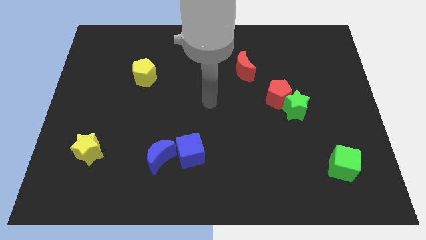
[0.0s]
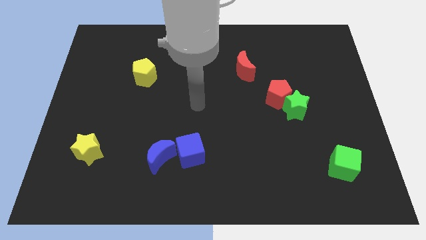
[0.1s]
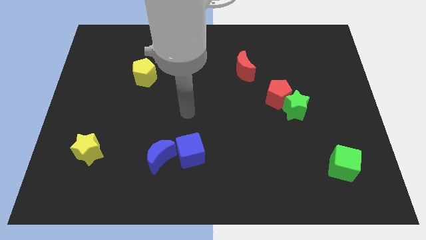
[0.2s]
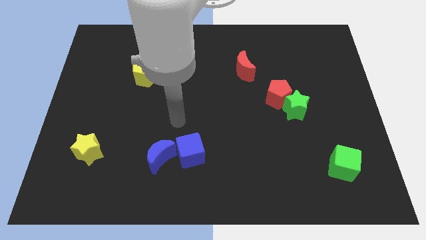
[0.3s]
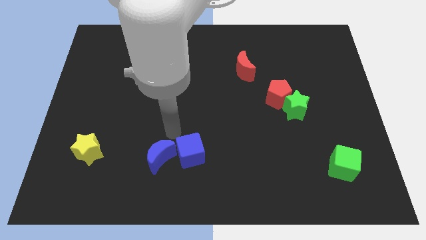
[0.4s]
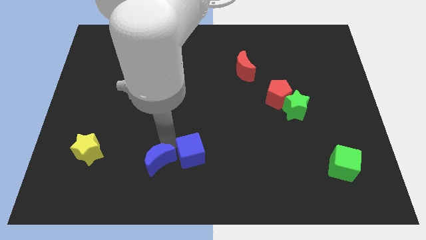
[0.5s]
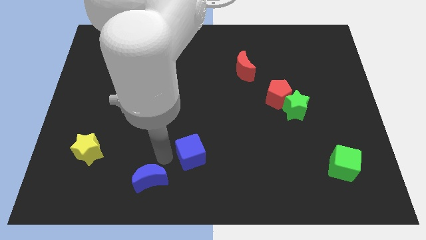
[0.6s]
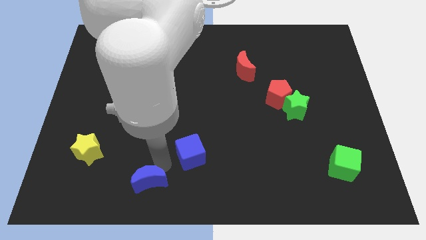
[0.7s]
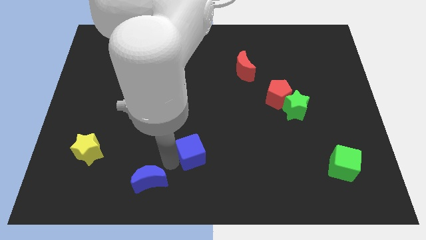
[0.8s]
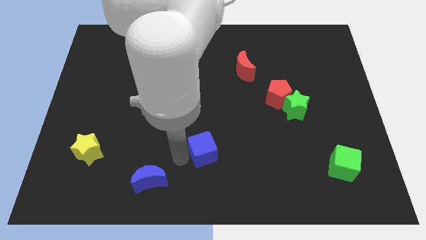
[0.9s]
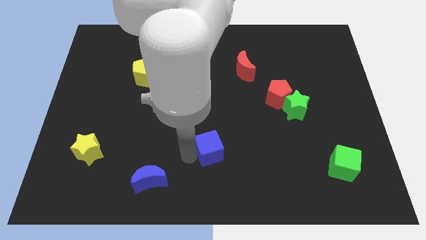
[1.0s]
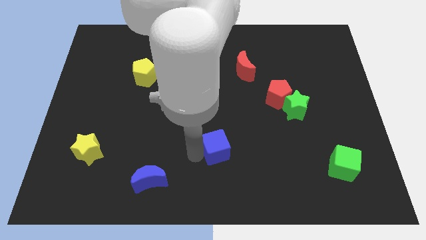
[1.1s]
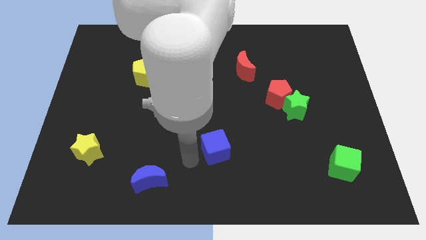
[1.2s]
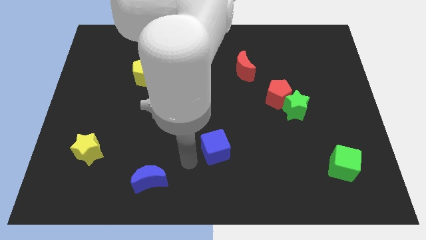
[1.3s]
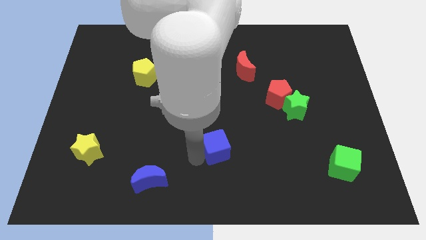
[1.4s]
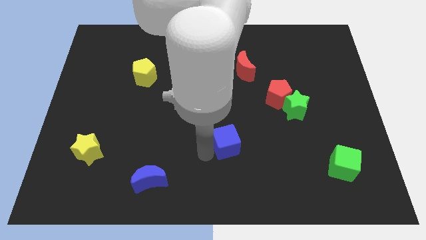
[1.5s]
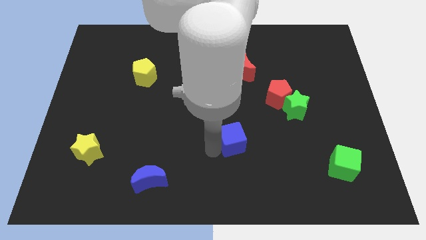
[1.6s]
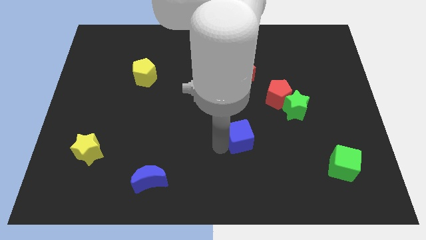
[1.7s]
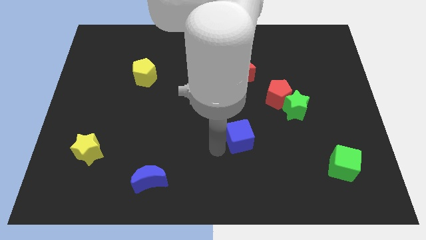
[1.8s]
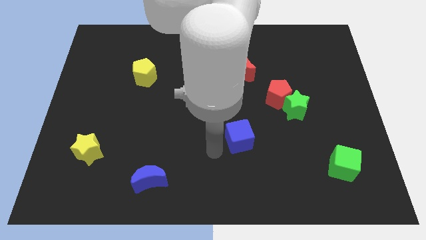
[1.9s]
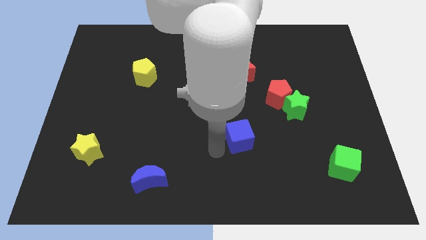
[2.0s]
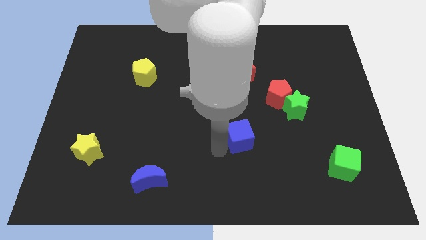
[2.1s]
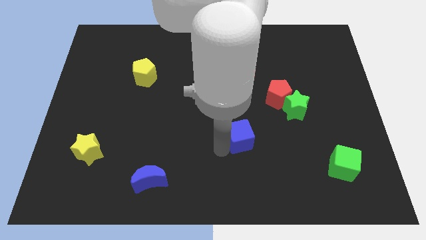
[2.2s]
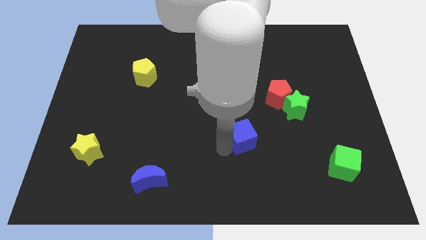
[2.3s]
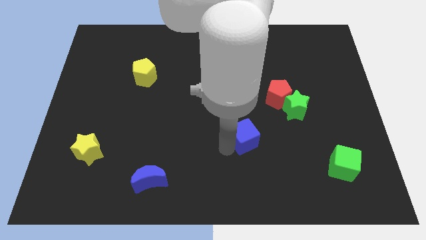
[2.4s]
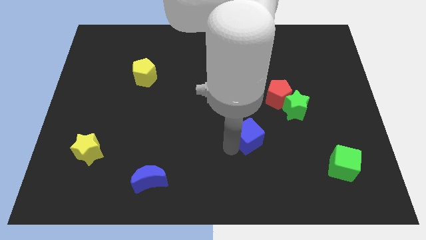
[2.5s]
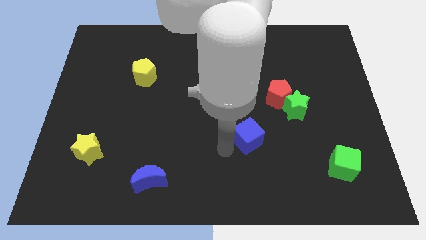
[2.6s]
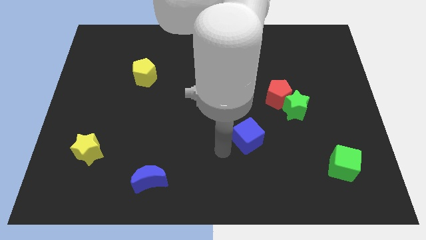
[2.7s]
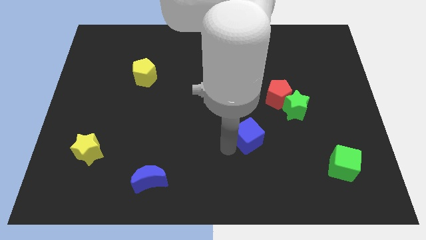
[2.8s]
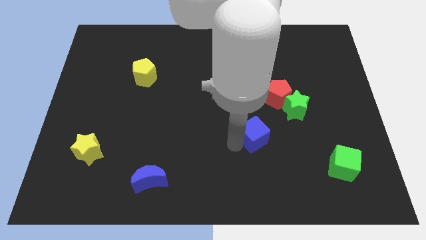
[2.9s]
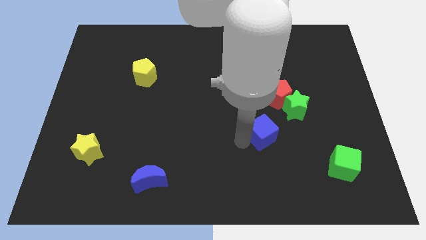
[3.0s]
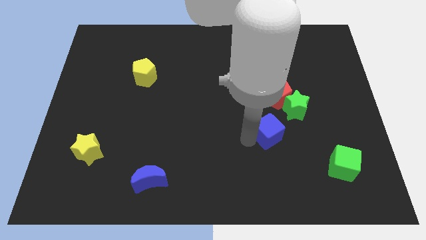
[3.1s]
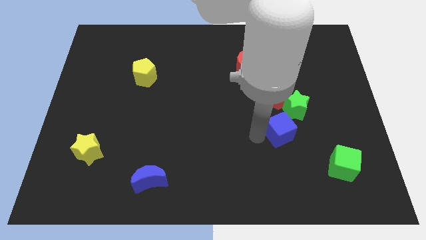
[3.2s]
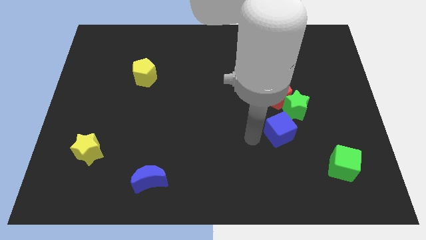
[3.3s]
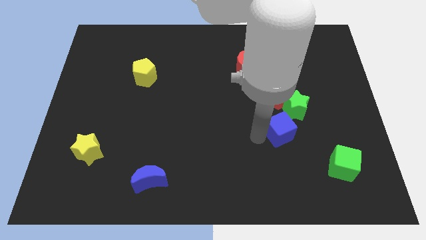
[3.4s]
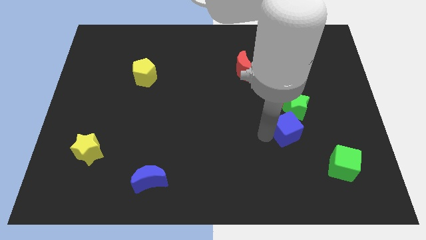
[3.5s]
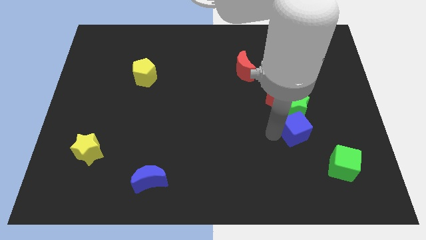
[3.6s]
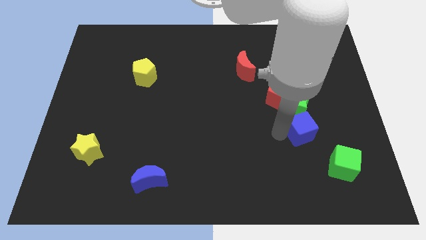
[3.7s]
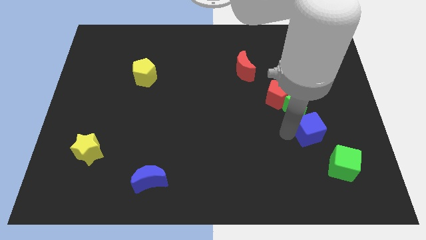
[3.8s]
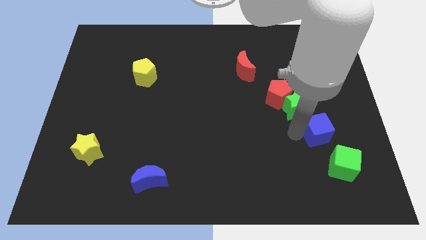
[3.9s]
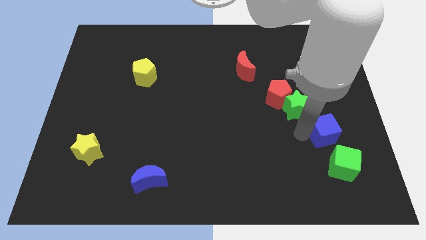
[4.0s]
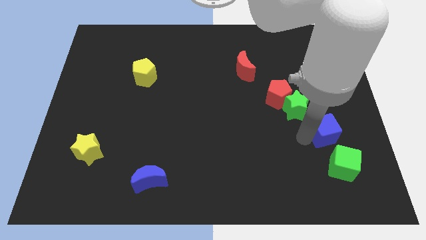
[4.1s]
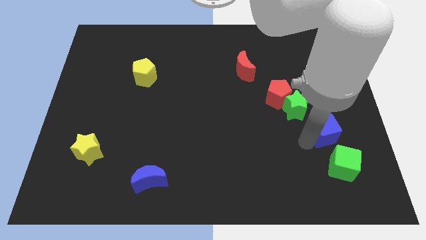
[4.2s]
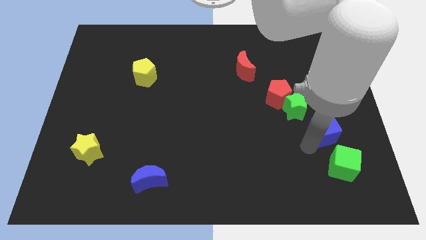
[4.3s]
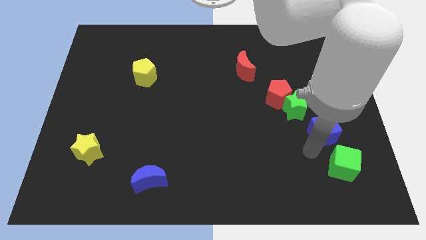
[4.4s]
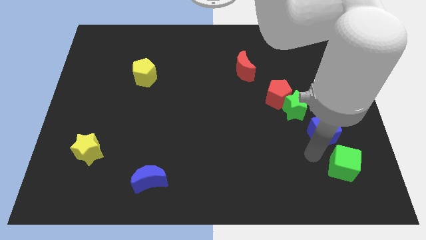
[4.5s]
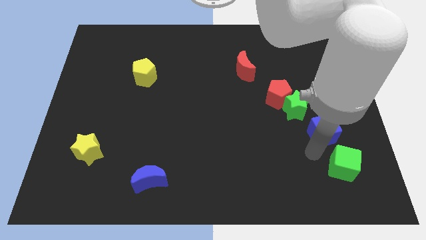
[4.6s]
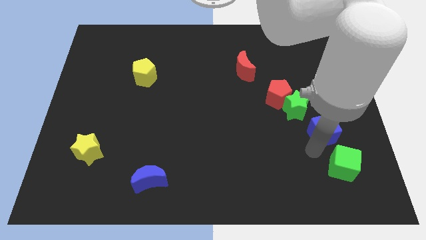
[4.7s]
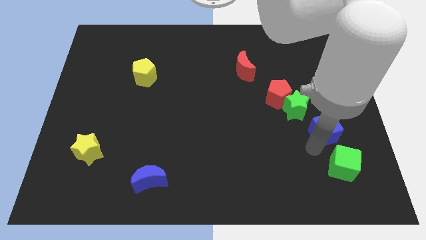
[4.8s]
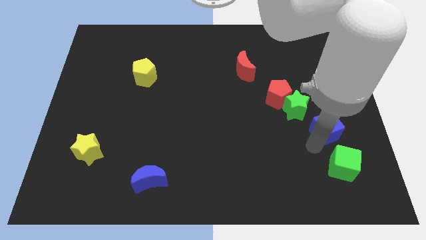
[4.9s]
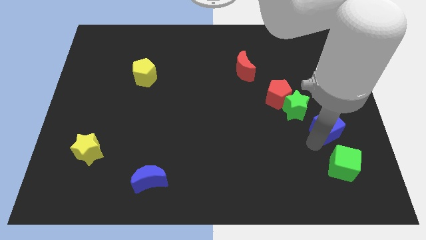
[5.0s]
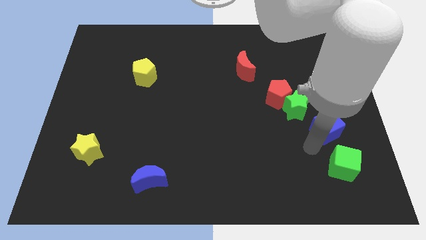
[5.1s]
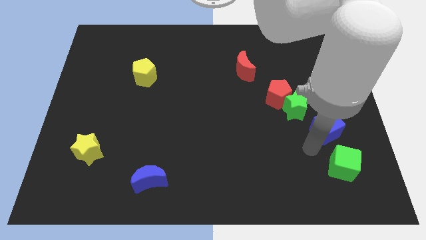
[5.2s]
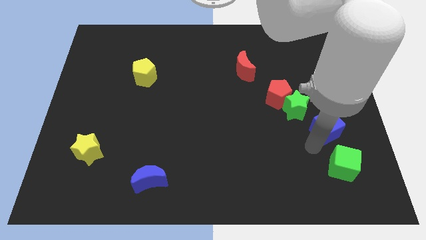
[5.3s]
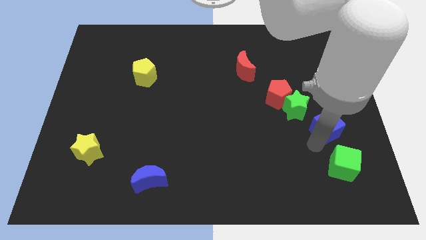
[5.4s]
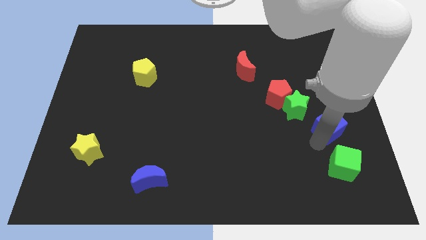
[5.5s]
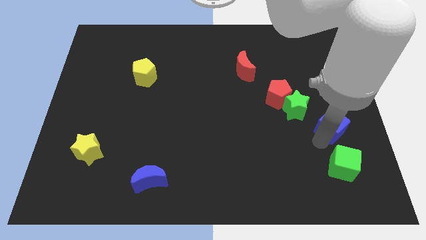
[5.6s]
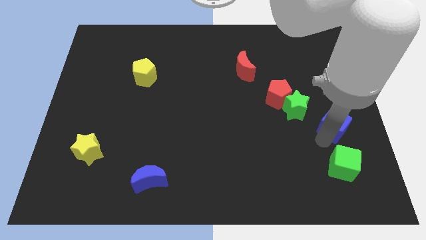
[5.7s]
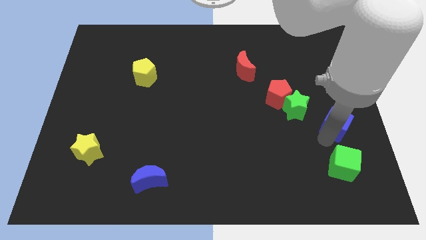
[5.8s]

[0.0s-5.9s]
move the blue cube to the right side
